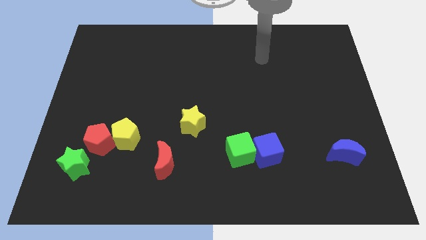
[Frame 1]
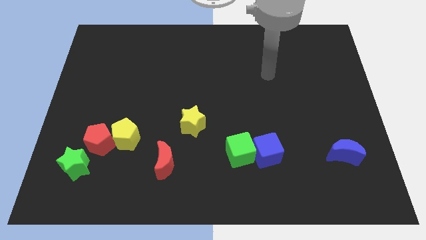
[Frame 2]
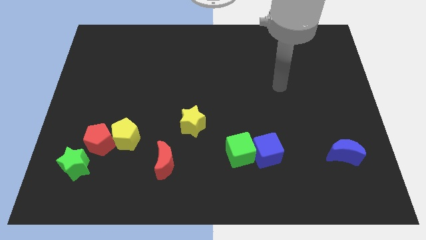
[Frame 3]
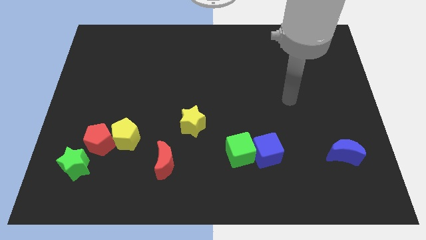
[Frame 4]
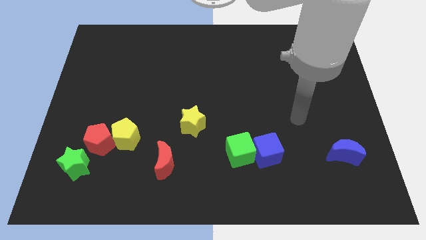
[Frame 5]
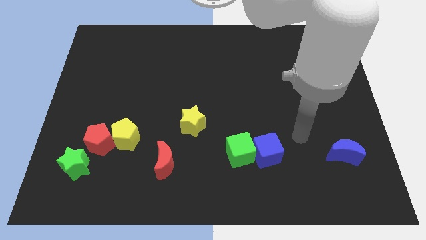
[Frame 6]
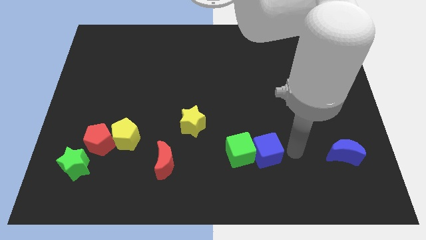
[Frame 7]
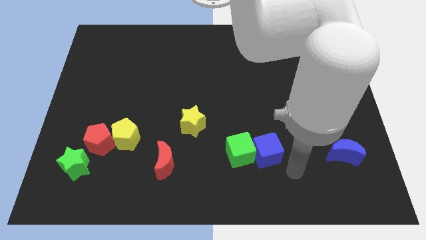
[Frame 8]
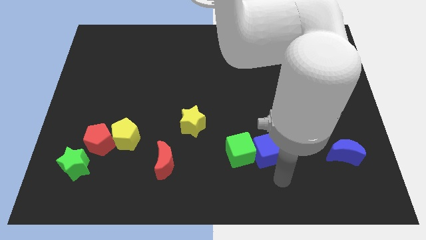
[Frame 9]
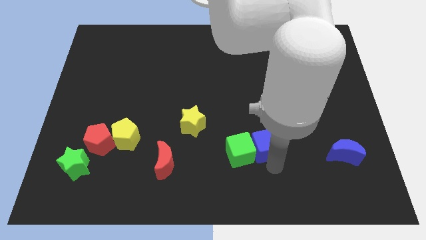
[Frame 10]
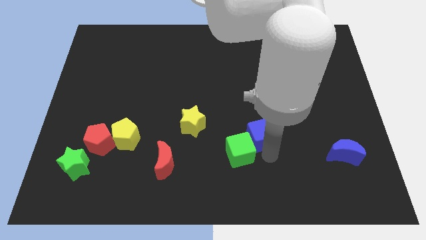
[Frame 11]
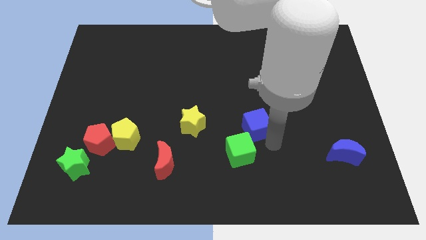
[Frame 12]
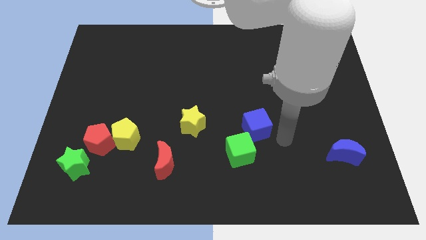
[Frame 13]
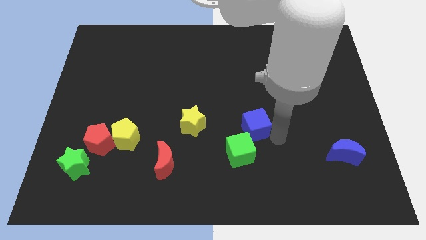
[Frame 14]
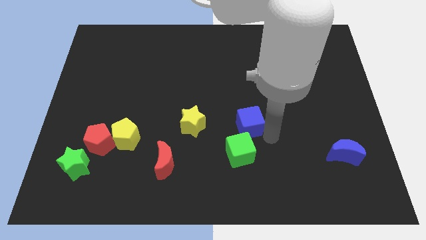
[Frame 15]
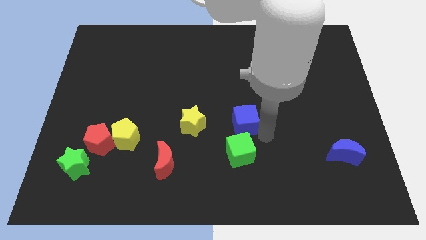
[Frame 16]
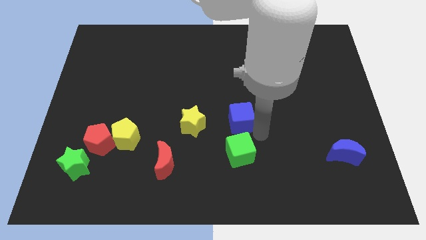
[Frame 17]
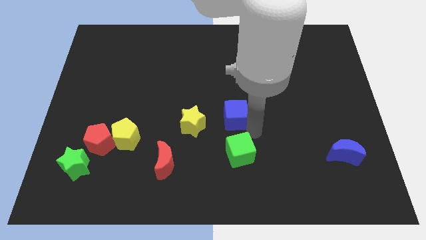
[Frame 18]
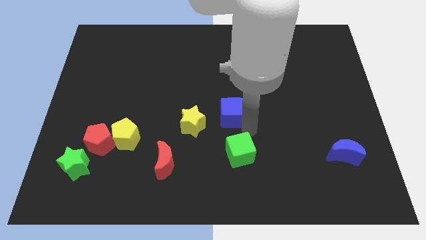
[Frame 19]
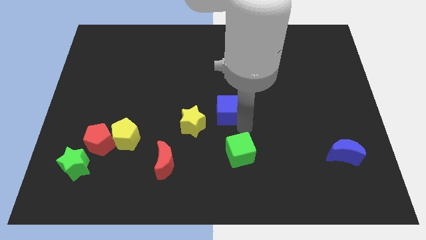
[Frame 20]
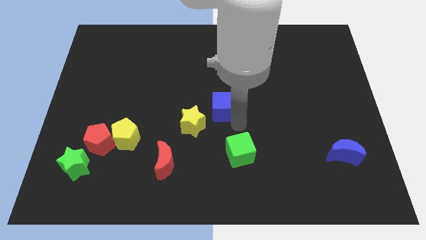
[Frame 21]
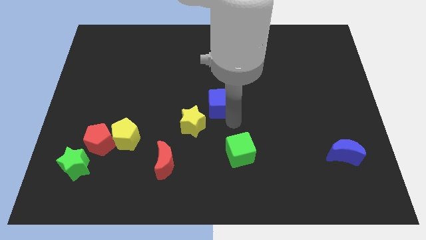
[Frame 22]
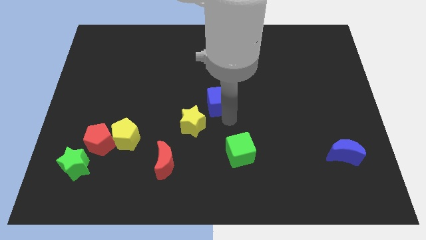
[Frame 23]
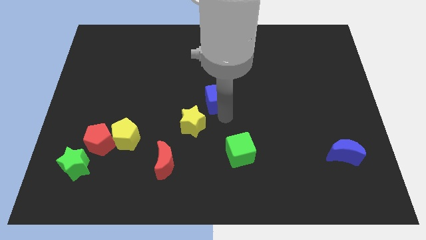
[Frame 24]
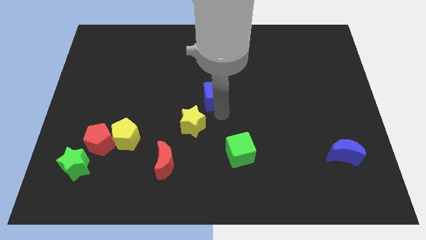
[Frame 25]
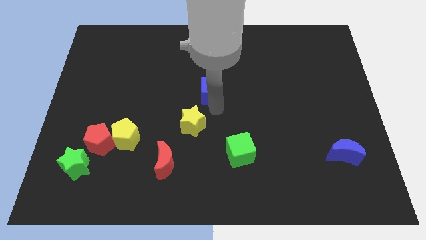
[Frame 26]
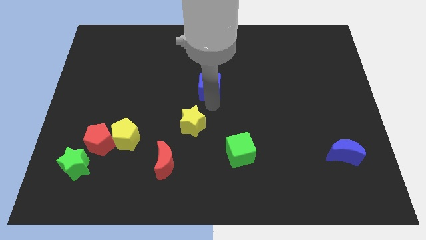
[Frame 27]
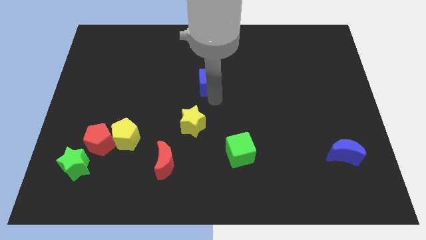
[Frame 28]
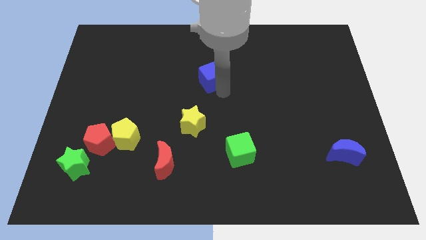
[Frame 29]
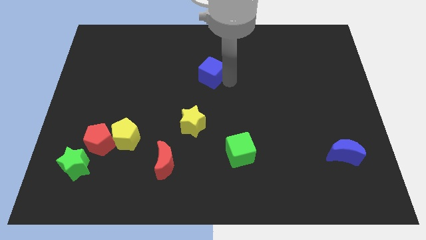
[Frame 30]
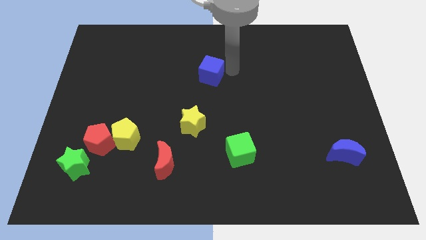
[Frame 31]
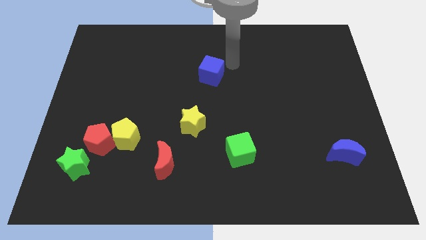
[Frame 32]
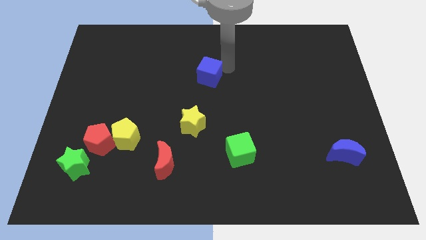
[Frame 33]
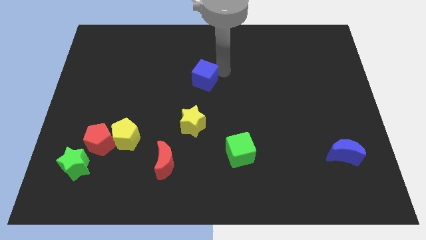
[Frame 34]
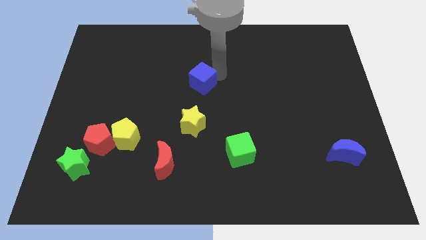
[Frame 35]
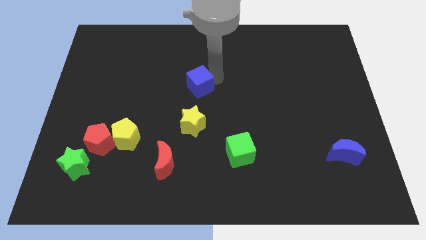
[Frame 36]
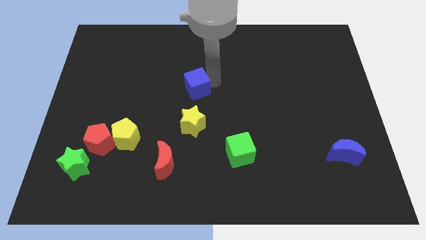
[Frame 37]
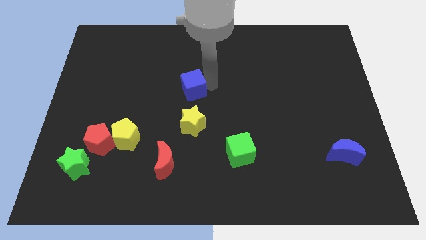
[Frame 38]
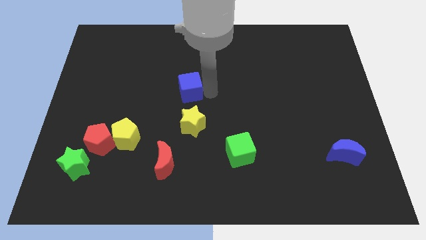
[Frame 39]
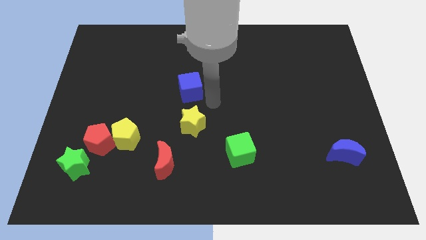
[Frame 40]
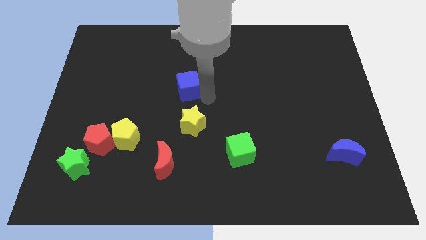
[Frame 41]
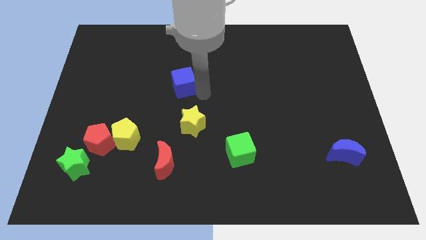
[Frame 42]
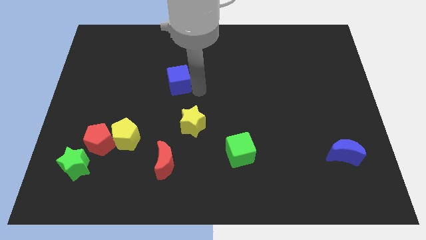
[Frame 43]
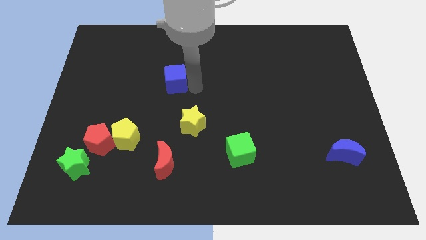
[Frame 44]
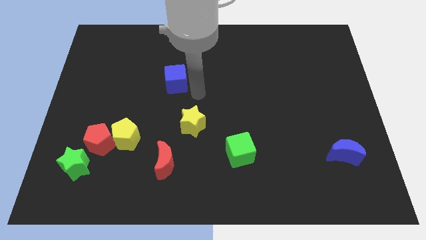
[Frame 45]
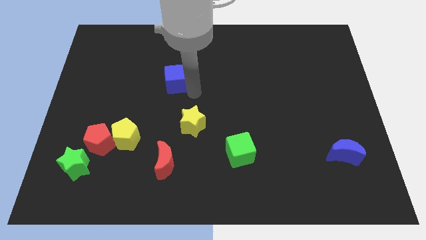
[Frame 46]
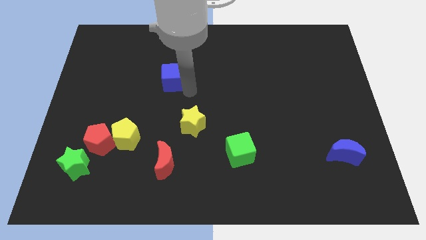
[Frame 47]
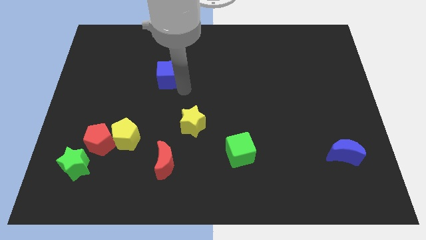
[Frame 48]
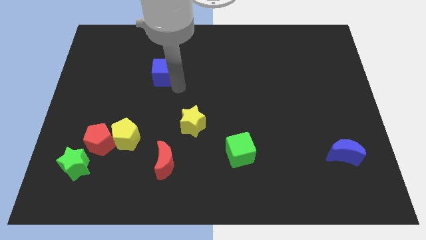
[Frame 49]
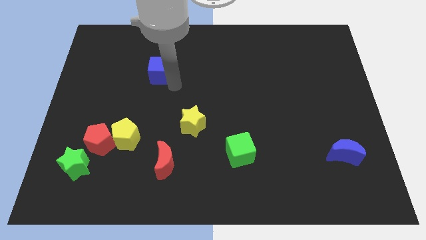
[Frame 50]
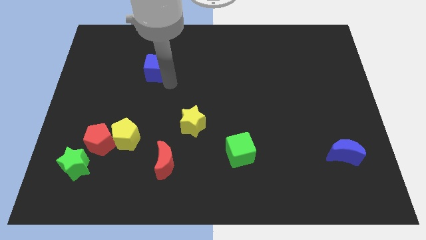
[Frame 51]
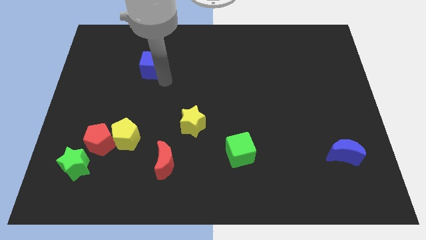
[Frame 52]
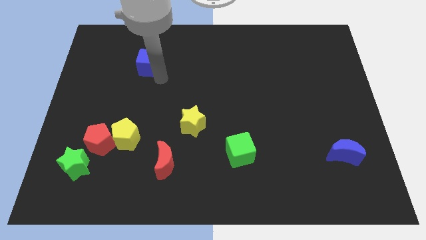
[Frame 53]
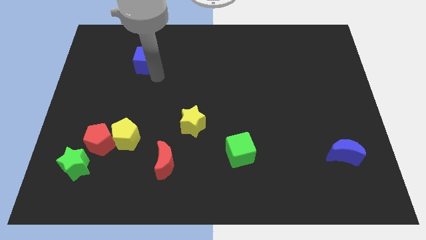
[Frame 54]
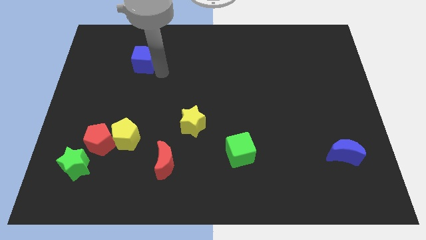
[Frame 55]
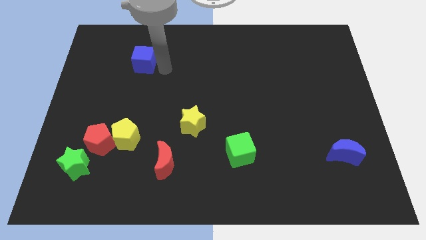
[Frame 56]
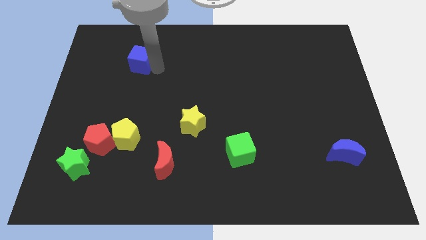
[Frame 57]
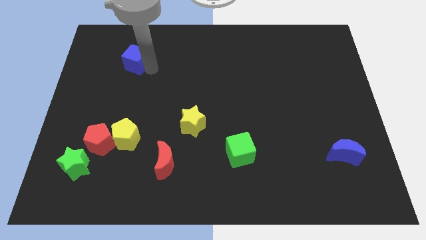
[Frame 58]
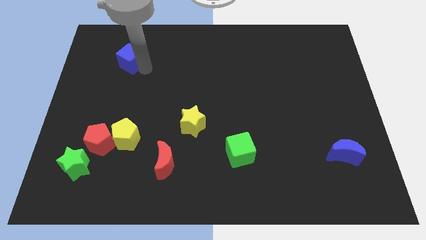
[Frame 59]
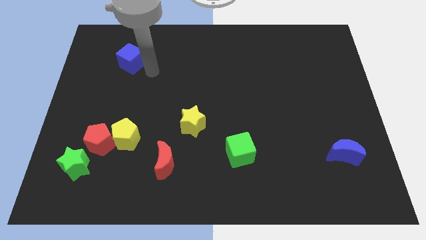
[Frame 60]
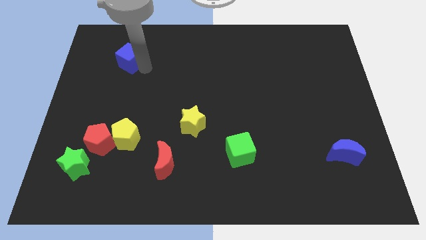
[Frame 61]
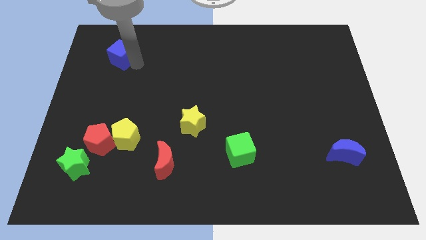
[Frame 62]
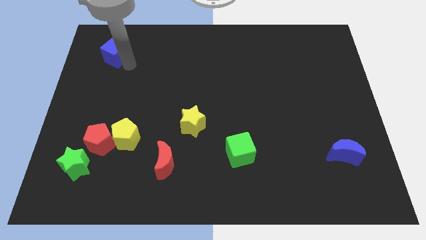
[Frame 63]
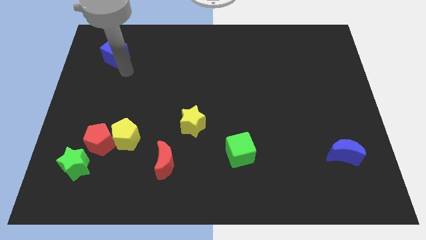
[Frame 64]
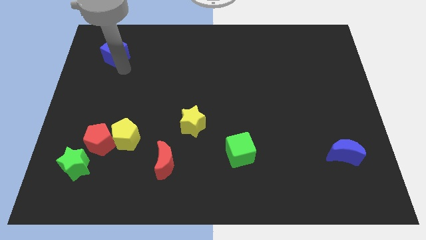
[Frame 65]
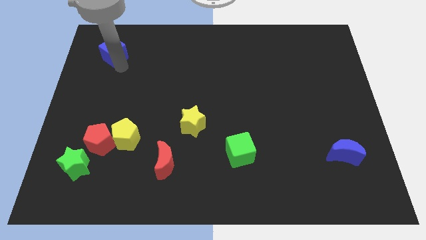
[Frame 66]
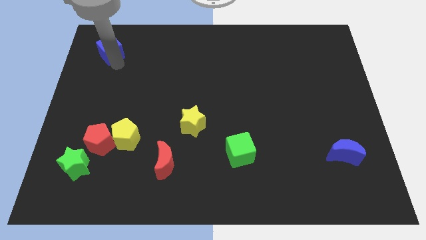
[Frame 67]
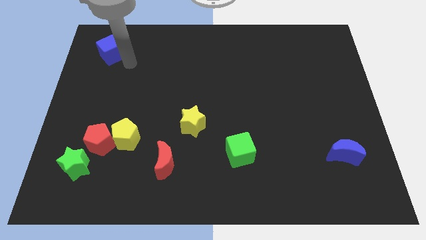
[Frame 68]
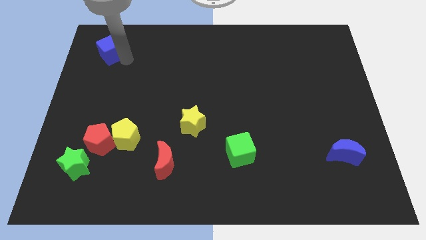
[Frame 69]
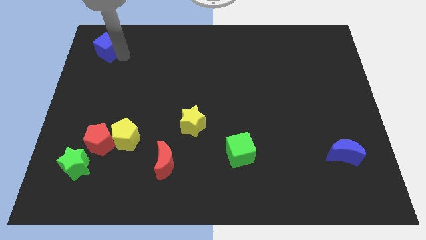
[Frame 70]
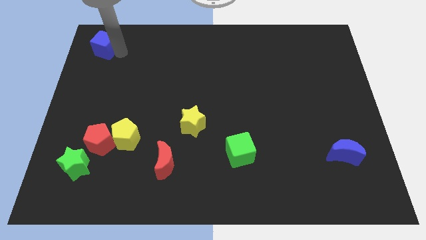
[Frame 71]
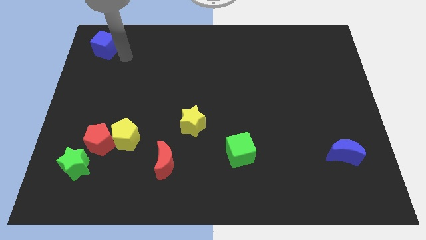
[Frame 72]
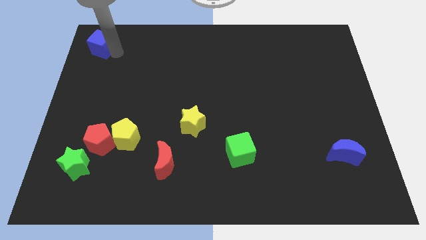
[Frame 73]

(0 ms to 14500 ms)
put the blue cube to the top left
